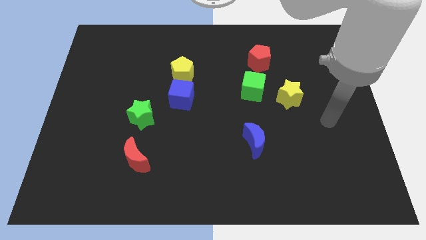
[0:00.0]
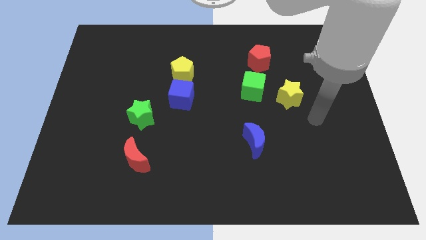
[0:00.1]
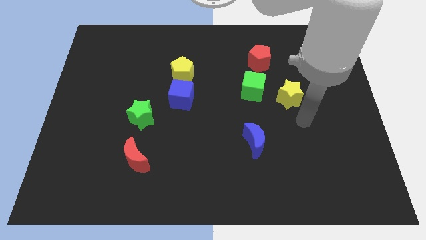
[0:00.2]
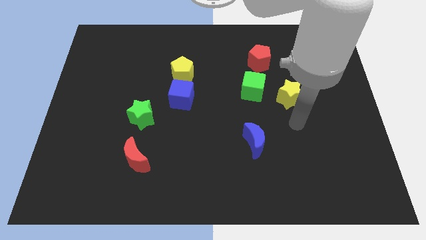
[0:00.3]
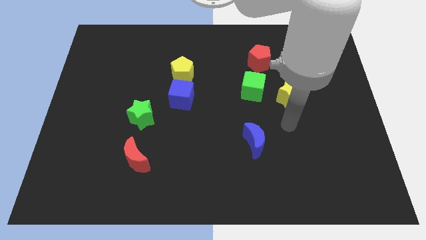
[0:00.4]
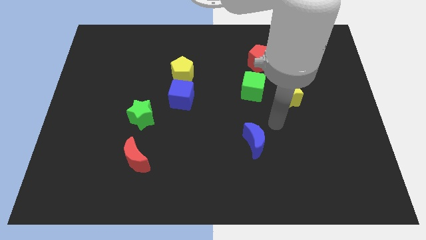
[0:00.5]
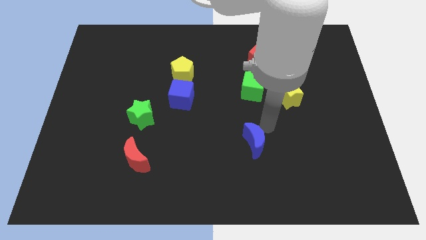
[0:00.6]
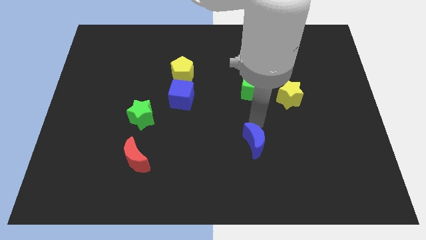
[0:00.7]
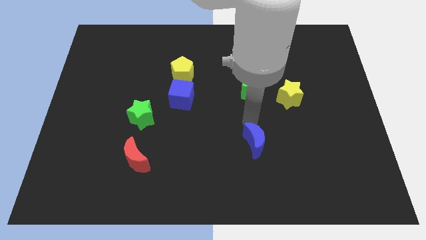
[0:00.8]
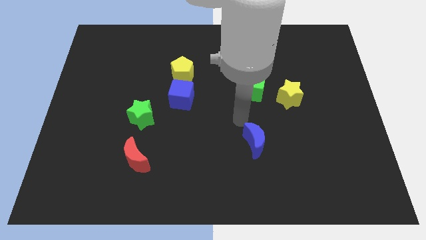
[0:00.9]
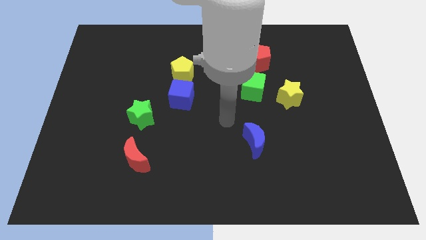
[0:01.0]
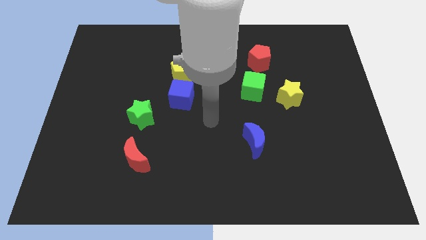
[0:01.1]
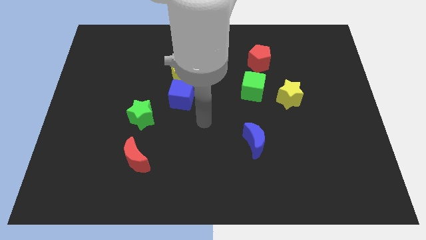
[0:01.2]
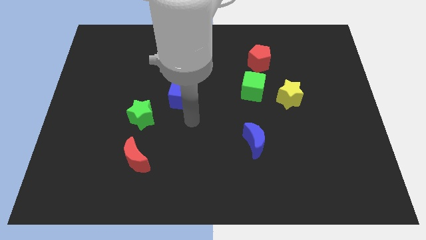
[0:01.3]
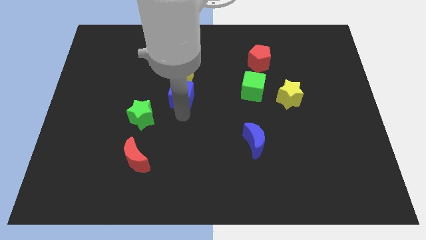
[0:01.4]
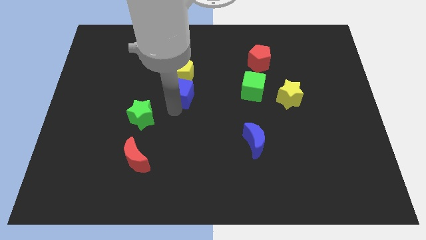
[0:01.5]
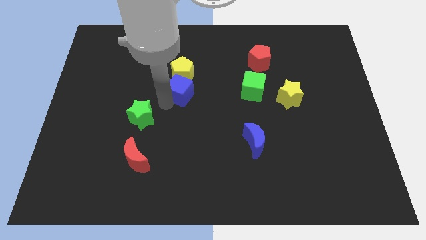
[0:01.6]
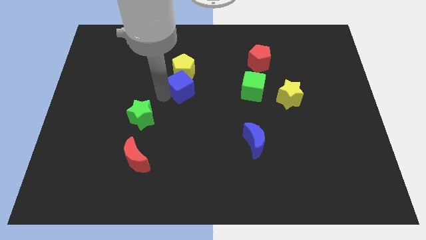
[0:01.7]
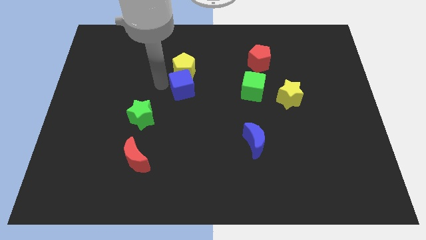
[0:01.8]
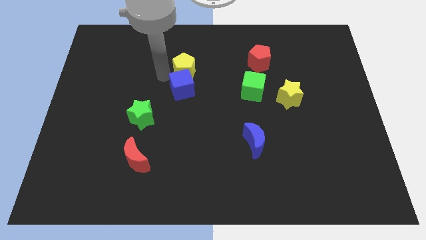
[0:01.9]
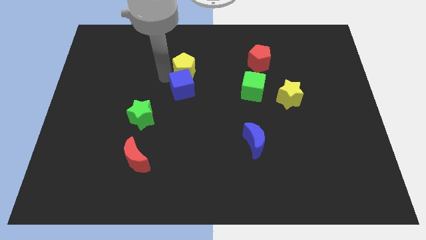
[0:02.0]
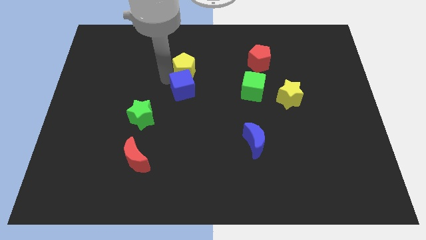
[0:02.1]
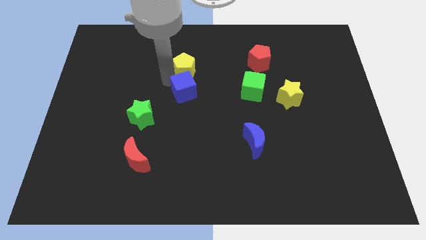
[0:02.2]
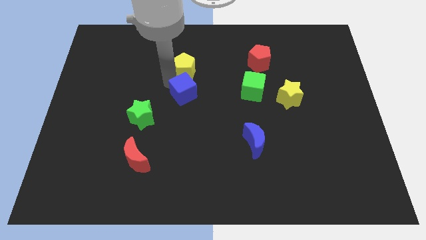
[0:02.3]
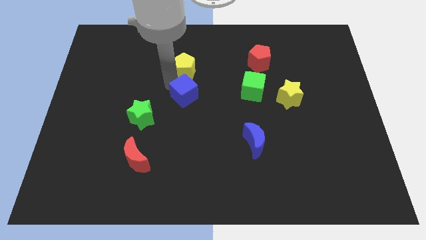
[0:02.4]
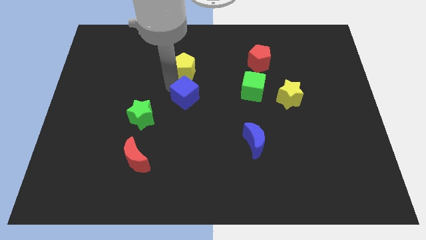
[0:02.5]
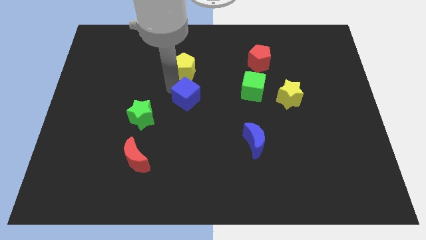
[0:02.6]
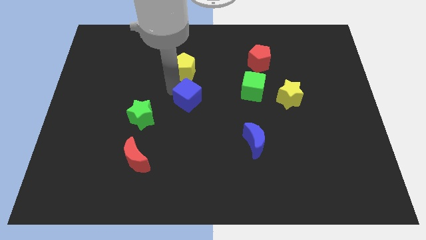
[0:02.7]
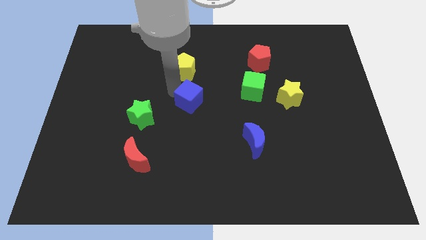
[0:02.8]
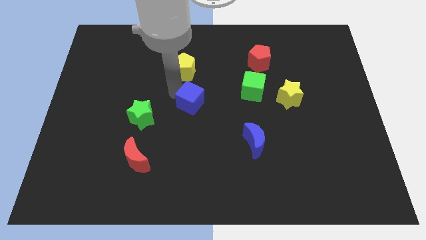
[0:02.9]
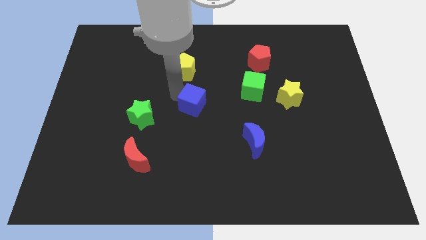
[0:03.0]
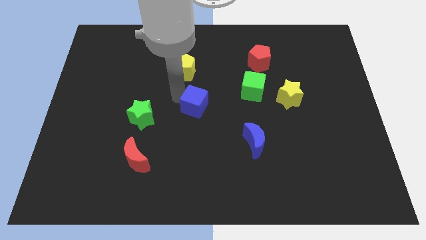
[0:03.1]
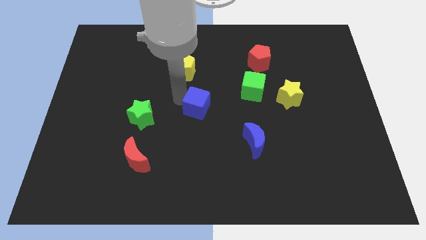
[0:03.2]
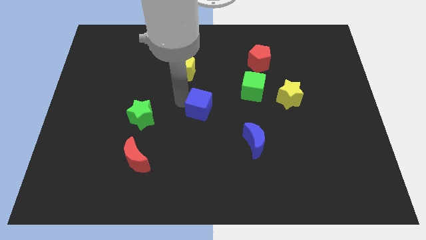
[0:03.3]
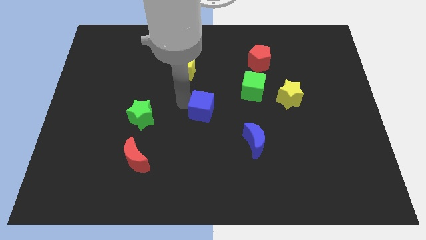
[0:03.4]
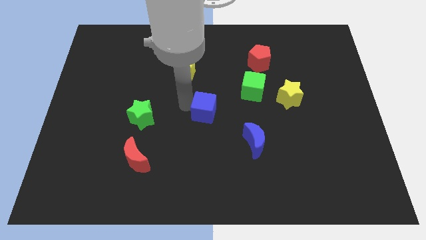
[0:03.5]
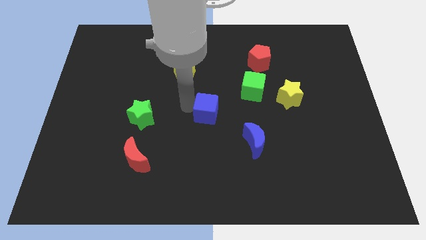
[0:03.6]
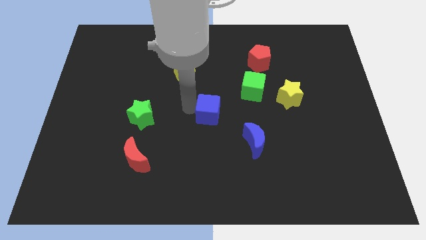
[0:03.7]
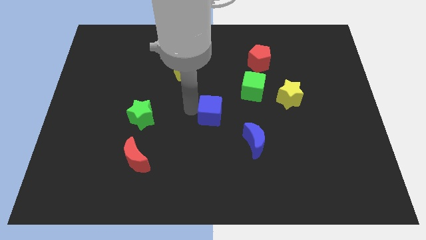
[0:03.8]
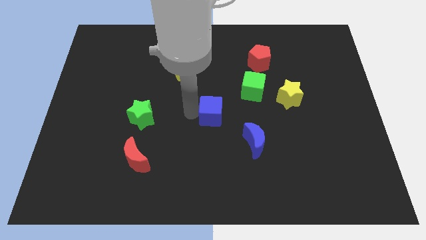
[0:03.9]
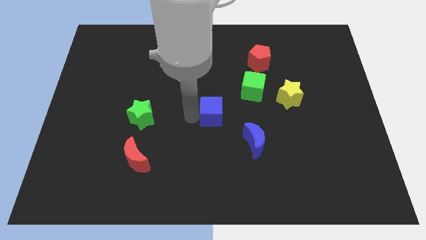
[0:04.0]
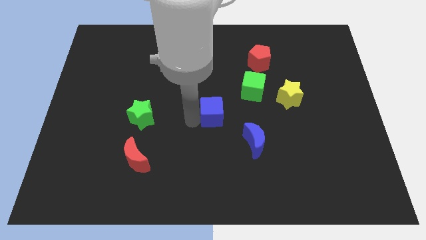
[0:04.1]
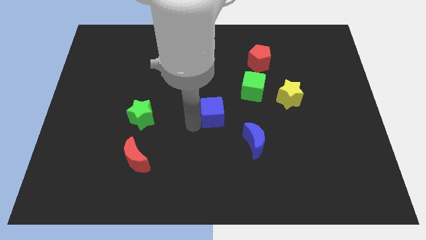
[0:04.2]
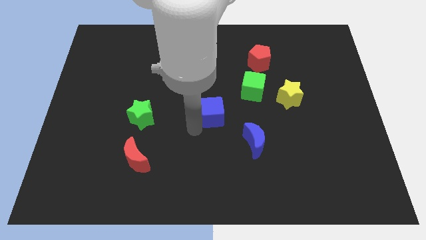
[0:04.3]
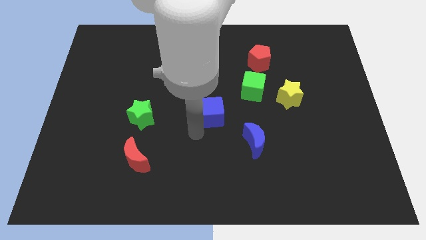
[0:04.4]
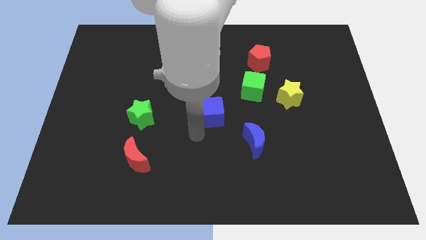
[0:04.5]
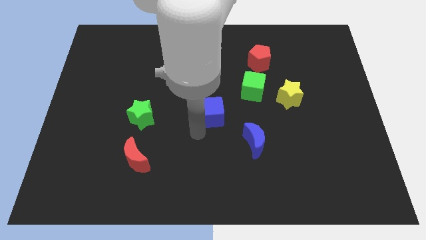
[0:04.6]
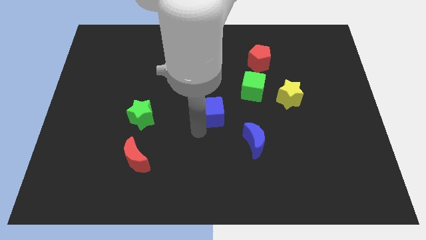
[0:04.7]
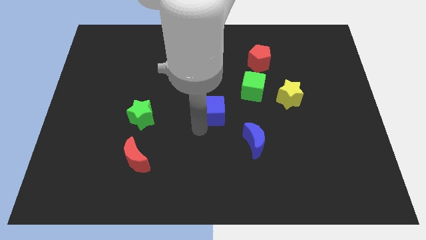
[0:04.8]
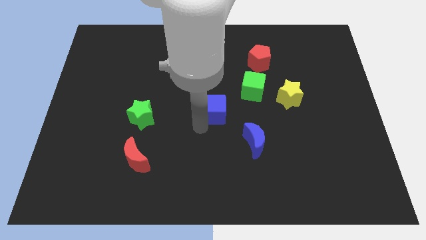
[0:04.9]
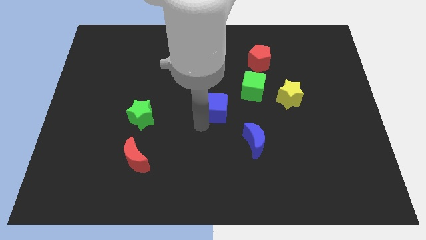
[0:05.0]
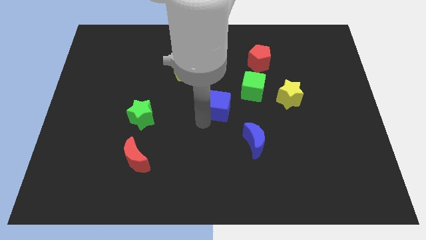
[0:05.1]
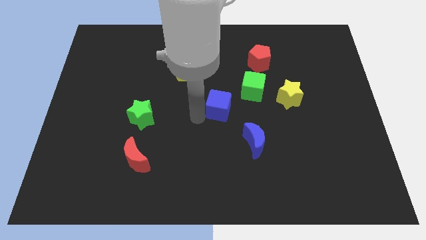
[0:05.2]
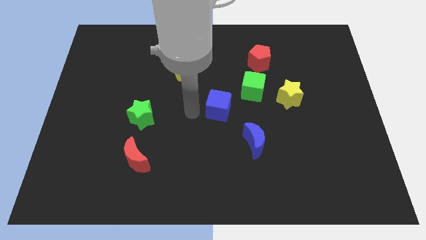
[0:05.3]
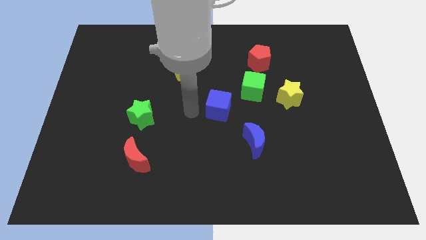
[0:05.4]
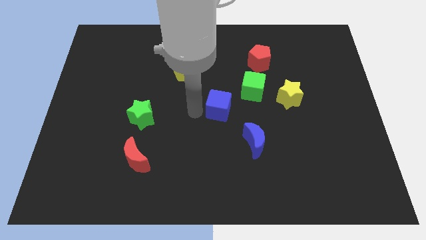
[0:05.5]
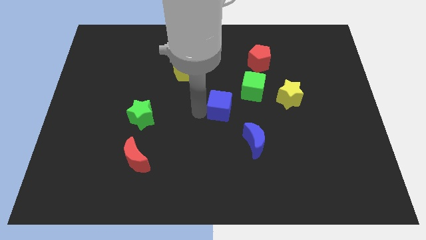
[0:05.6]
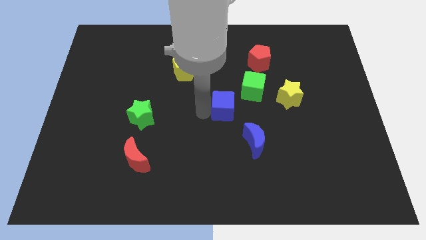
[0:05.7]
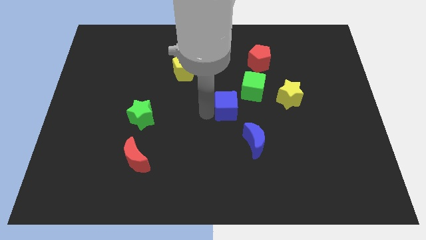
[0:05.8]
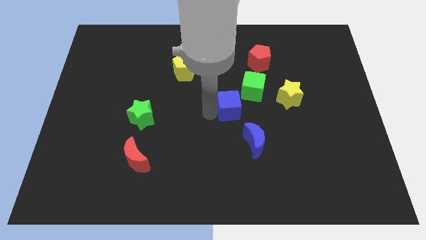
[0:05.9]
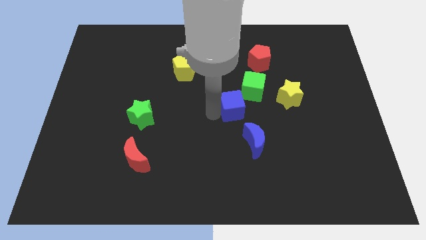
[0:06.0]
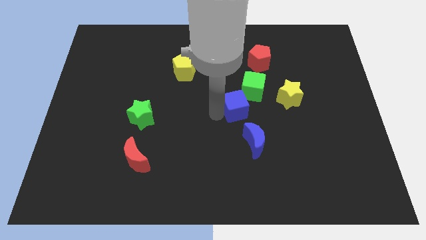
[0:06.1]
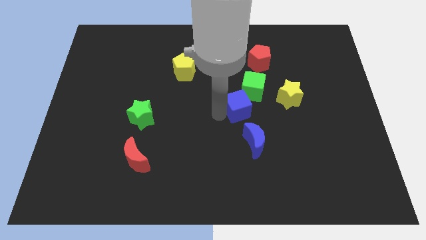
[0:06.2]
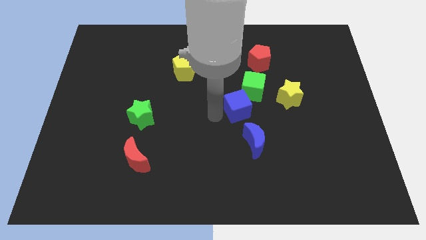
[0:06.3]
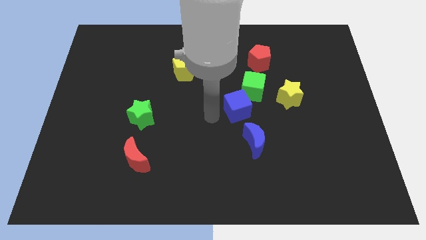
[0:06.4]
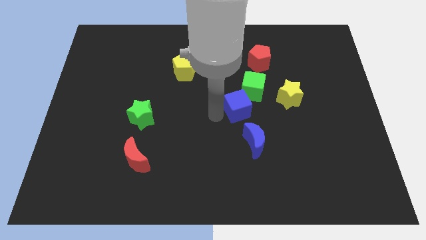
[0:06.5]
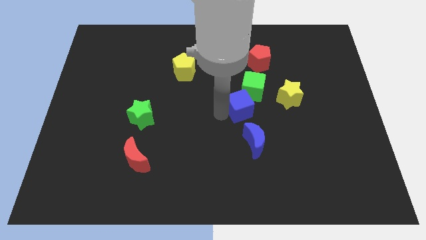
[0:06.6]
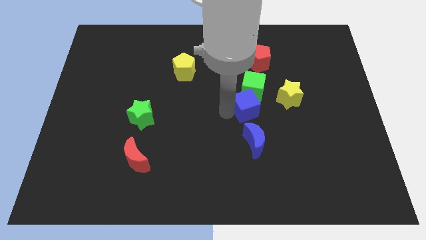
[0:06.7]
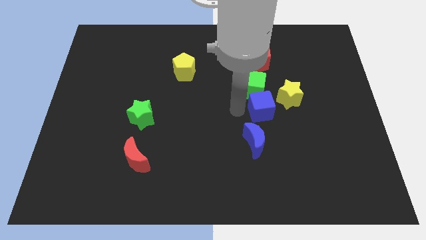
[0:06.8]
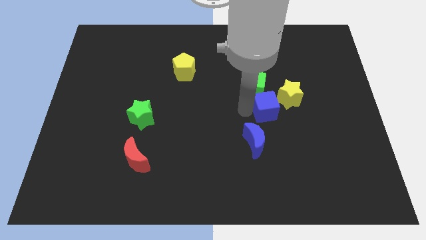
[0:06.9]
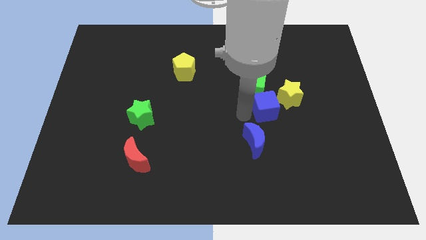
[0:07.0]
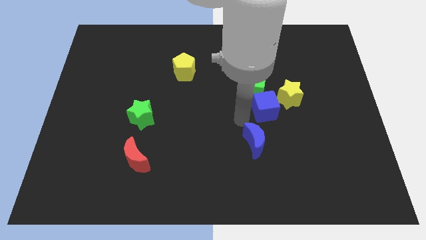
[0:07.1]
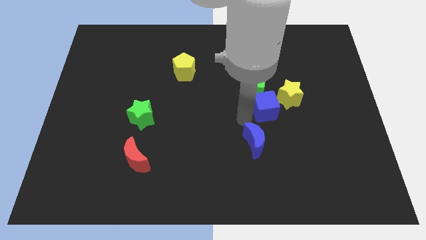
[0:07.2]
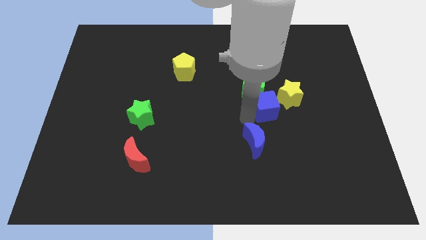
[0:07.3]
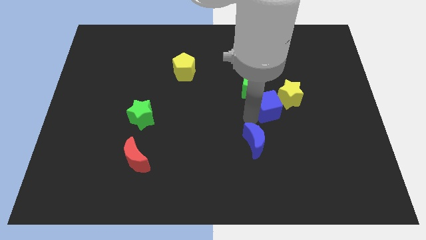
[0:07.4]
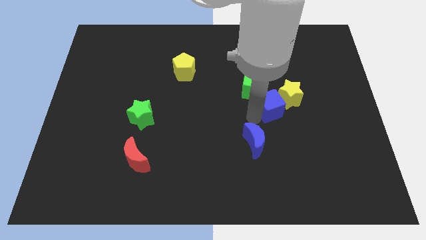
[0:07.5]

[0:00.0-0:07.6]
slide the blue cube to the yellow star

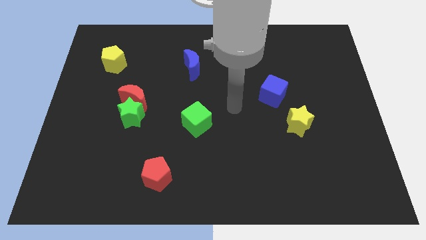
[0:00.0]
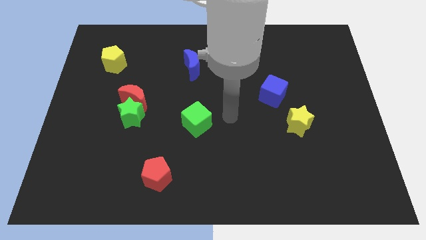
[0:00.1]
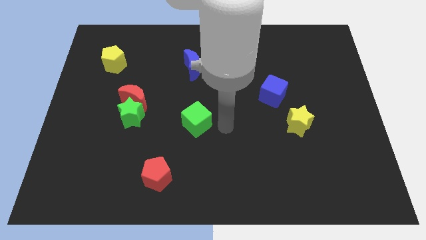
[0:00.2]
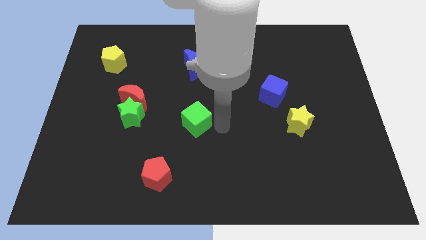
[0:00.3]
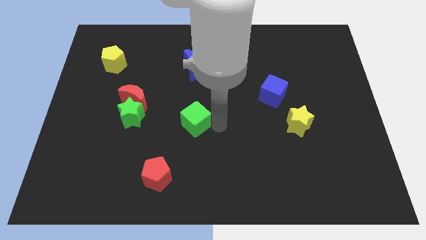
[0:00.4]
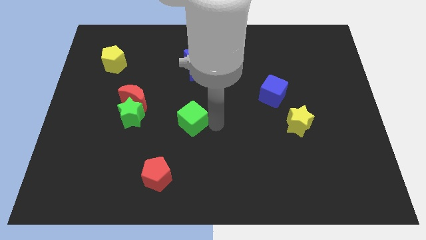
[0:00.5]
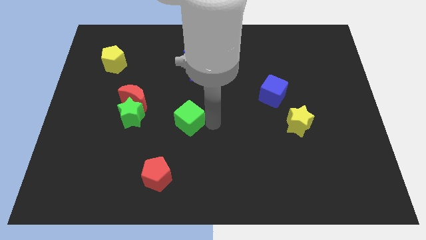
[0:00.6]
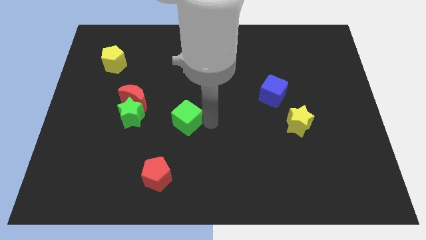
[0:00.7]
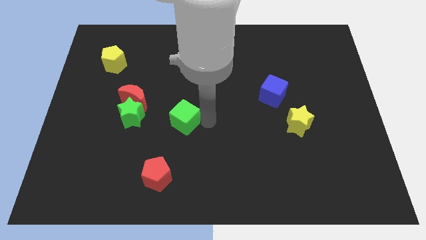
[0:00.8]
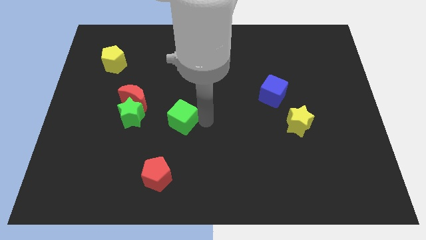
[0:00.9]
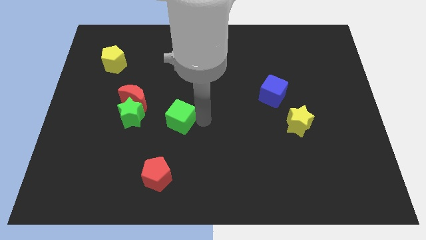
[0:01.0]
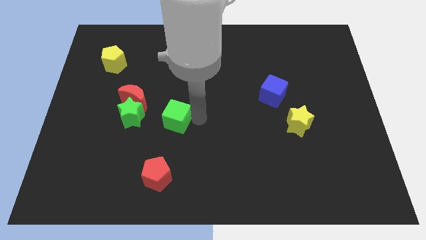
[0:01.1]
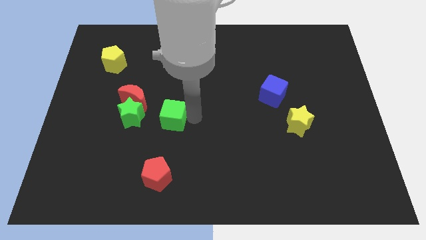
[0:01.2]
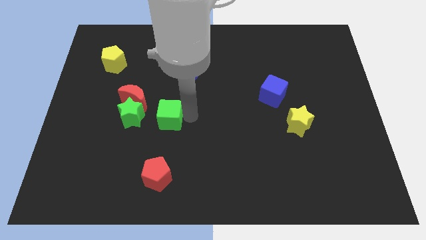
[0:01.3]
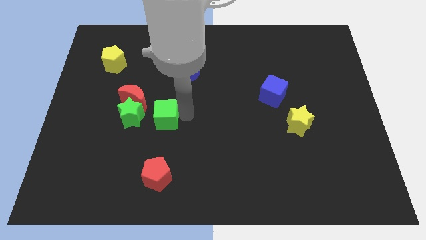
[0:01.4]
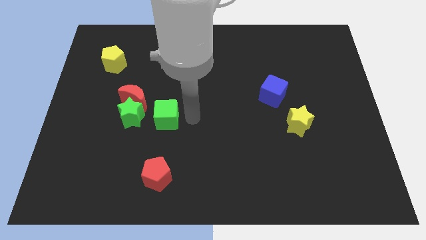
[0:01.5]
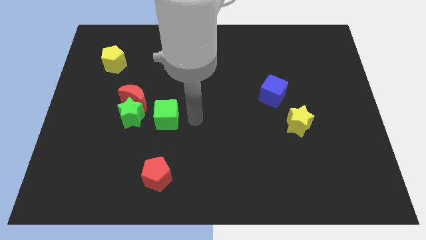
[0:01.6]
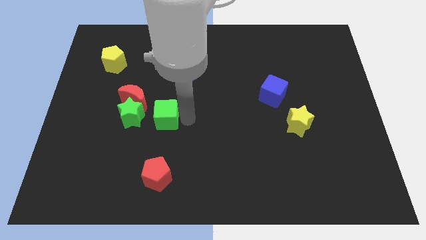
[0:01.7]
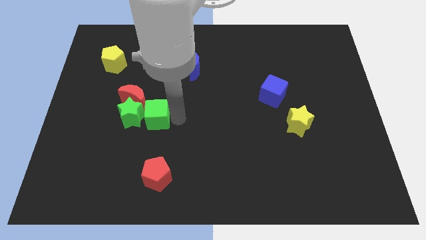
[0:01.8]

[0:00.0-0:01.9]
slide the green cube close to the green star
